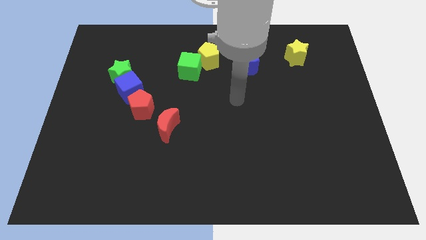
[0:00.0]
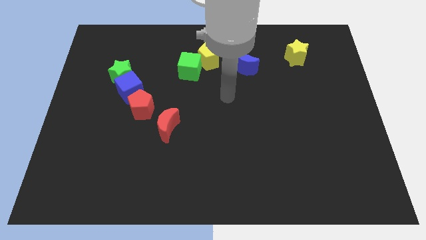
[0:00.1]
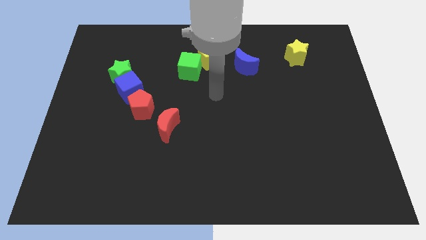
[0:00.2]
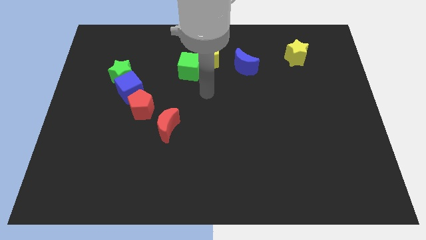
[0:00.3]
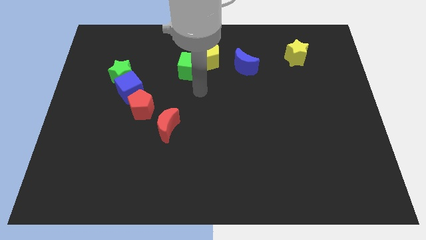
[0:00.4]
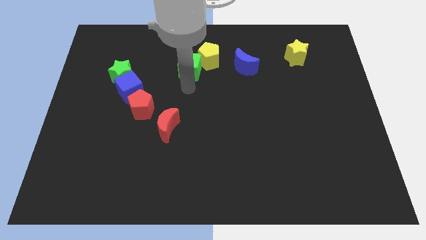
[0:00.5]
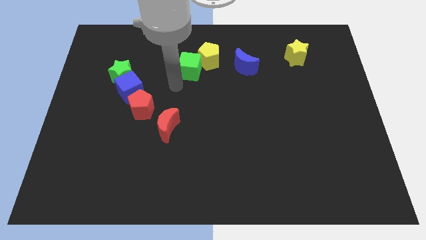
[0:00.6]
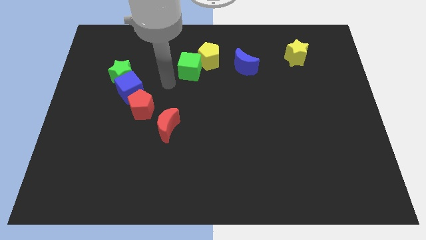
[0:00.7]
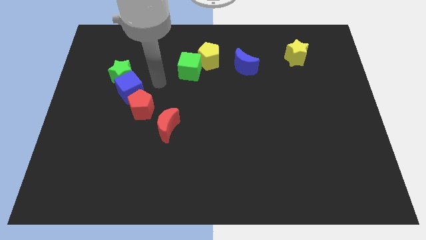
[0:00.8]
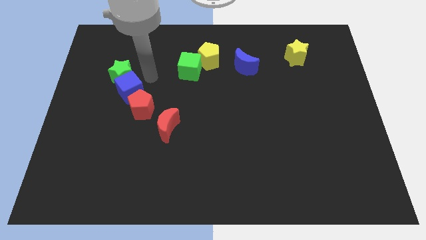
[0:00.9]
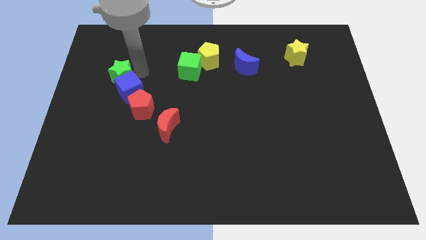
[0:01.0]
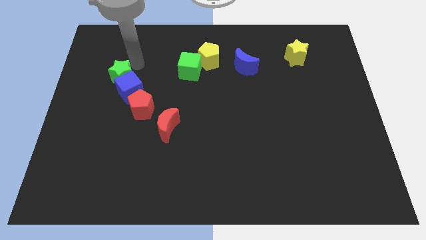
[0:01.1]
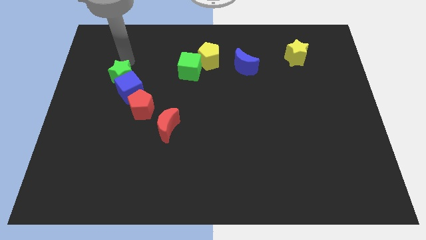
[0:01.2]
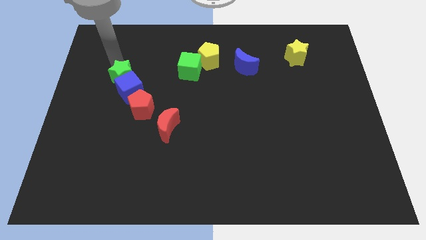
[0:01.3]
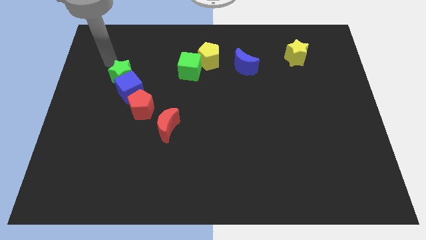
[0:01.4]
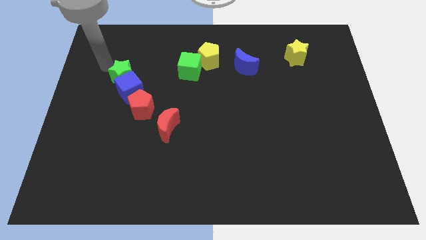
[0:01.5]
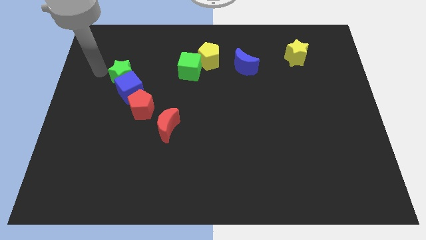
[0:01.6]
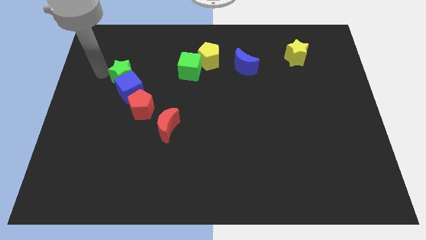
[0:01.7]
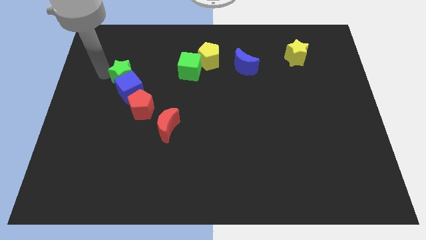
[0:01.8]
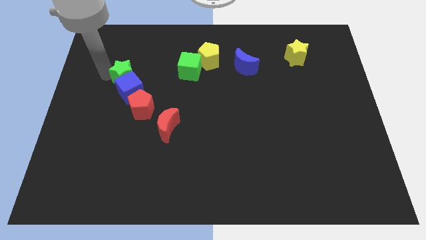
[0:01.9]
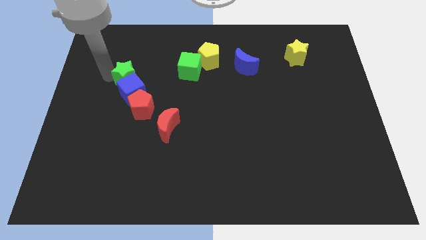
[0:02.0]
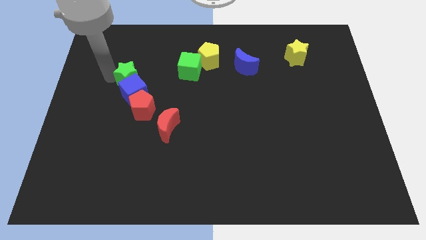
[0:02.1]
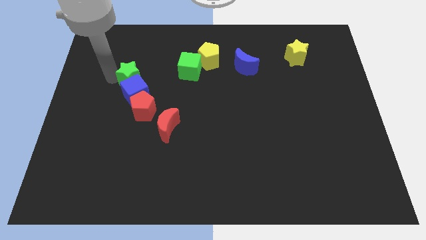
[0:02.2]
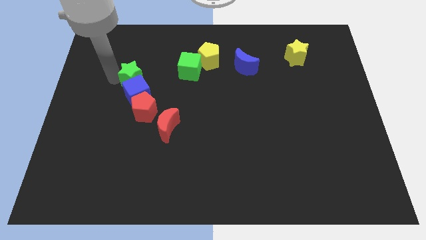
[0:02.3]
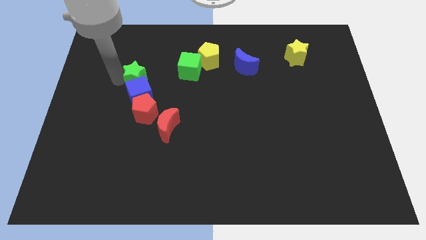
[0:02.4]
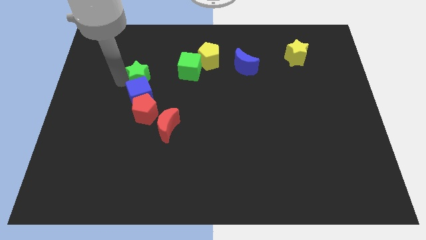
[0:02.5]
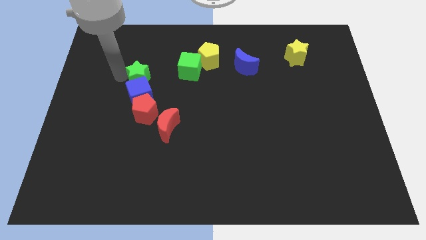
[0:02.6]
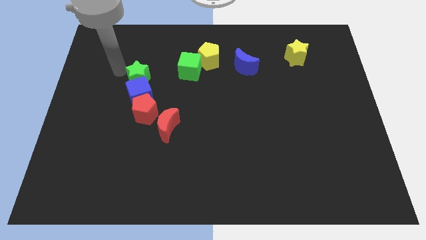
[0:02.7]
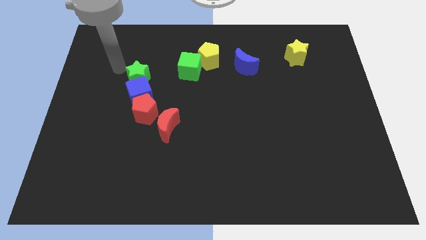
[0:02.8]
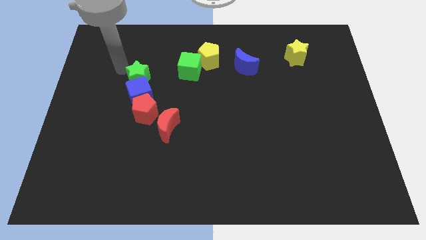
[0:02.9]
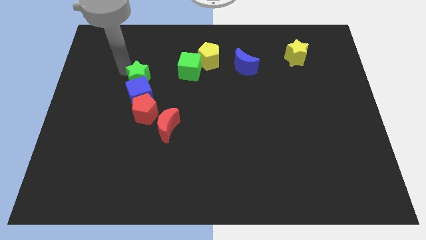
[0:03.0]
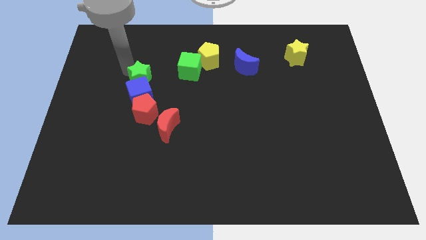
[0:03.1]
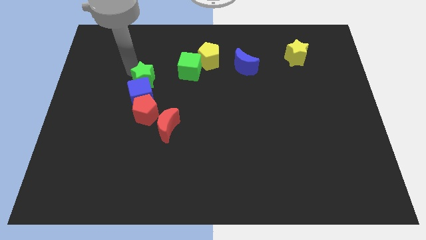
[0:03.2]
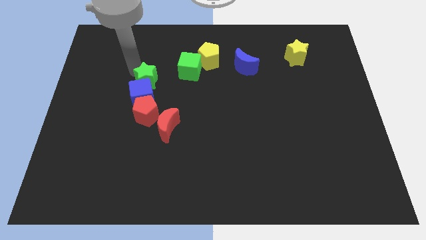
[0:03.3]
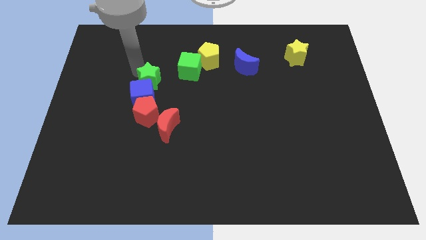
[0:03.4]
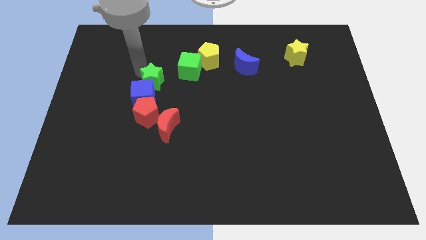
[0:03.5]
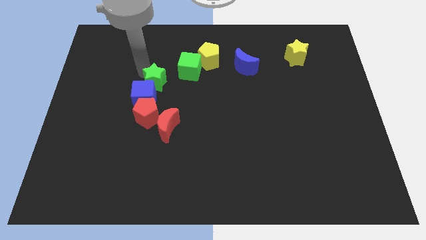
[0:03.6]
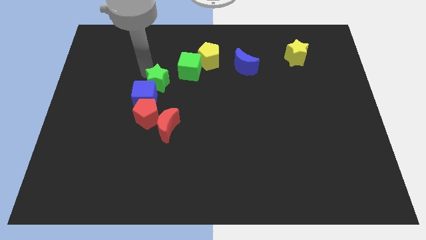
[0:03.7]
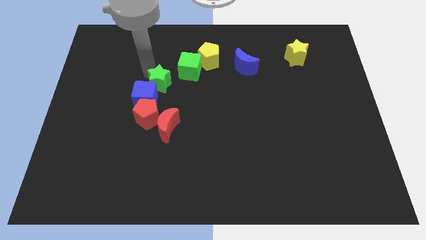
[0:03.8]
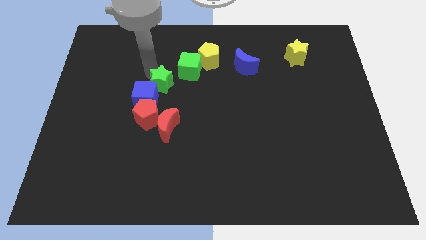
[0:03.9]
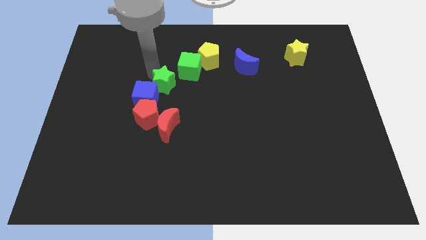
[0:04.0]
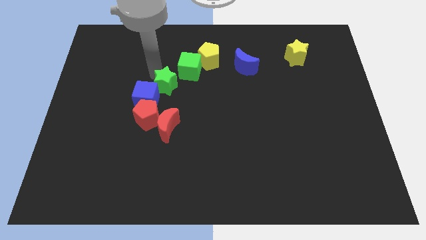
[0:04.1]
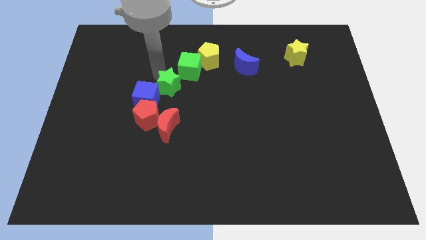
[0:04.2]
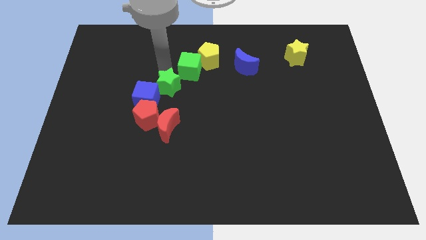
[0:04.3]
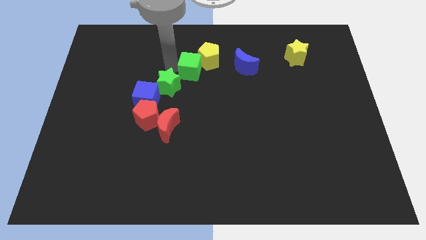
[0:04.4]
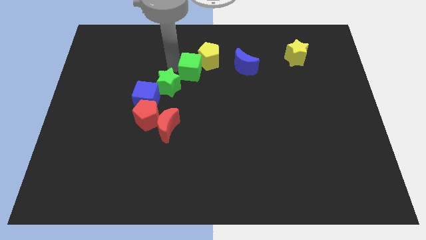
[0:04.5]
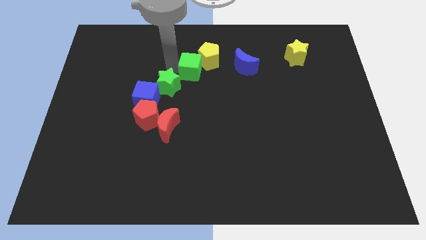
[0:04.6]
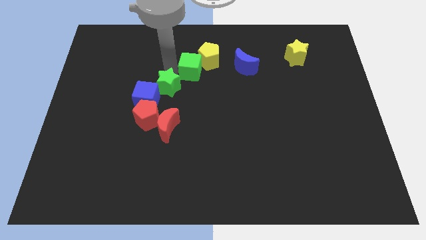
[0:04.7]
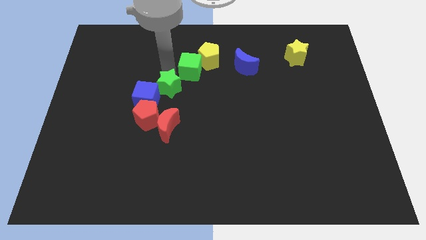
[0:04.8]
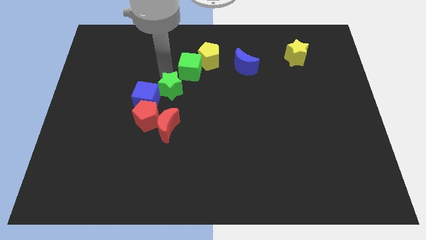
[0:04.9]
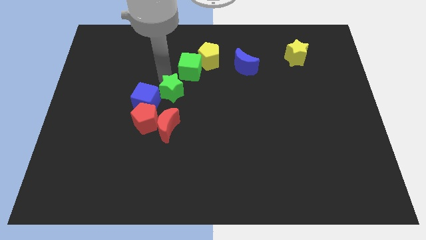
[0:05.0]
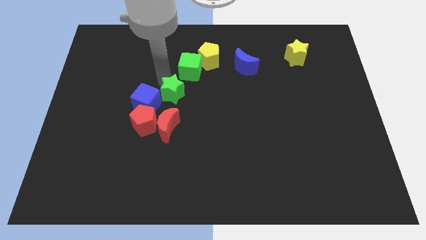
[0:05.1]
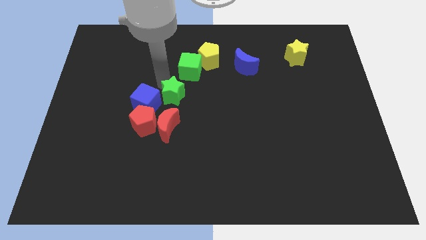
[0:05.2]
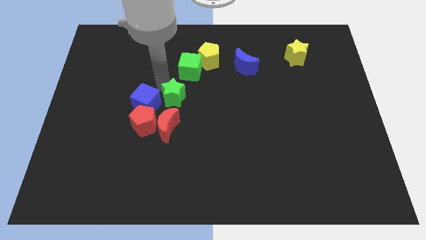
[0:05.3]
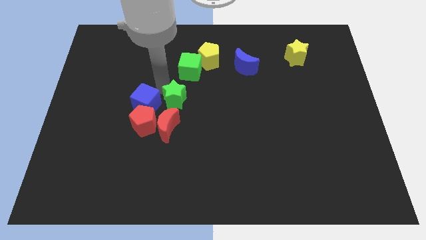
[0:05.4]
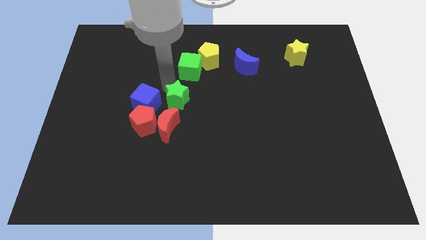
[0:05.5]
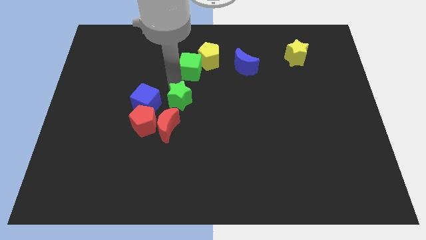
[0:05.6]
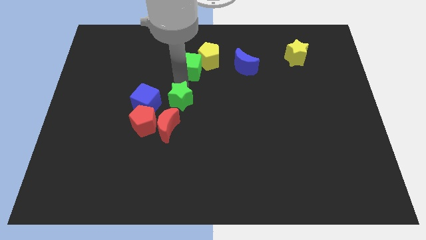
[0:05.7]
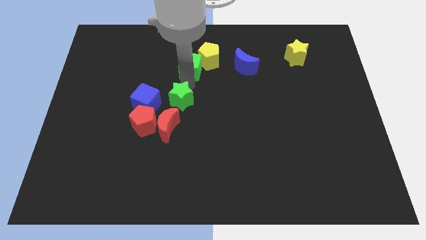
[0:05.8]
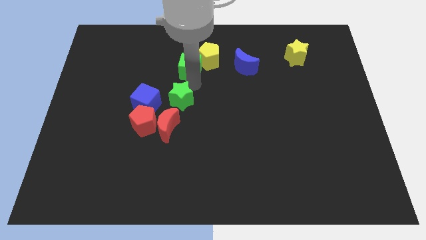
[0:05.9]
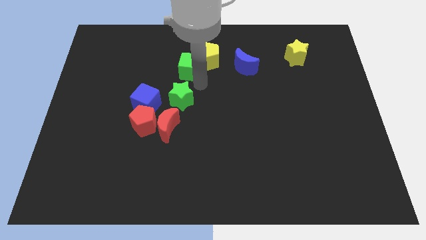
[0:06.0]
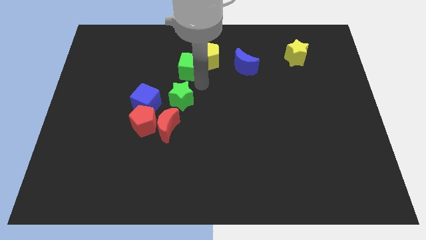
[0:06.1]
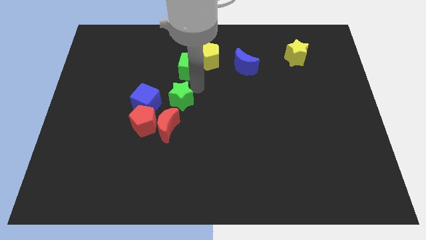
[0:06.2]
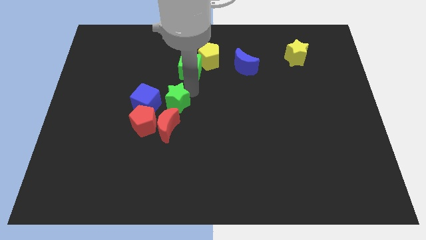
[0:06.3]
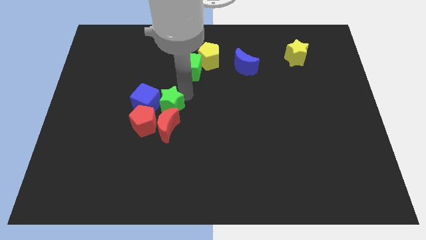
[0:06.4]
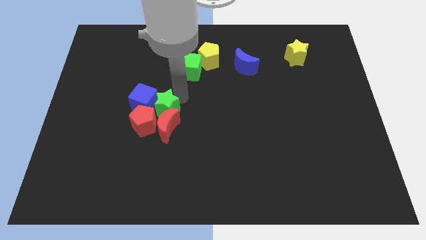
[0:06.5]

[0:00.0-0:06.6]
put the green star towards the red moon
